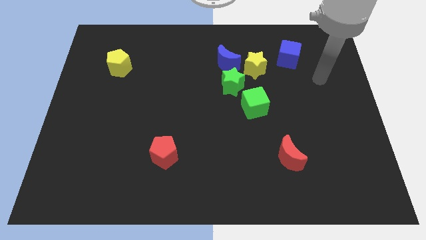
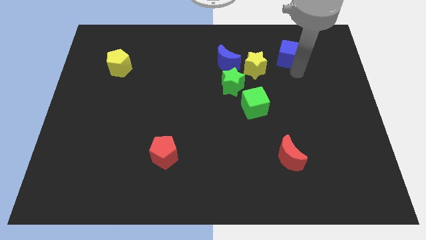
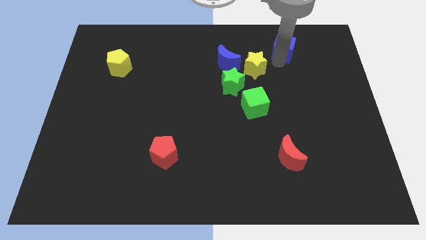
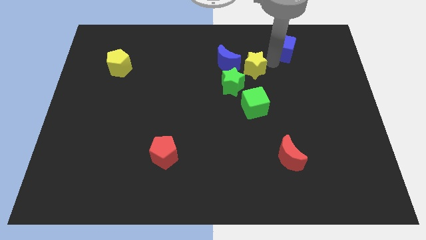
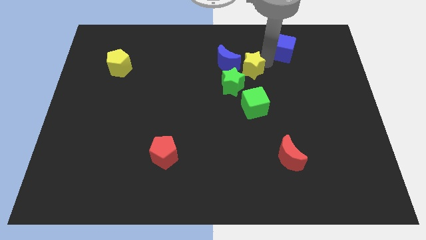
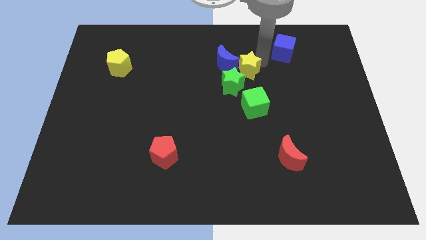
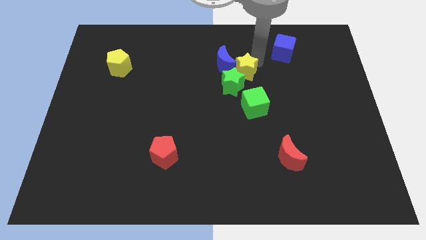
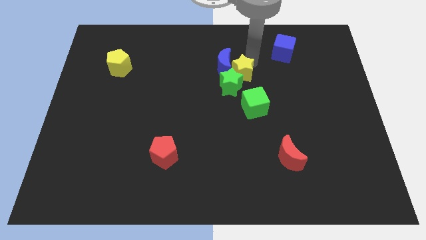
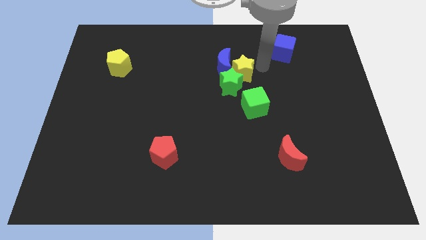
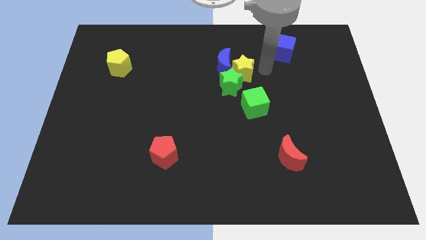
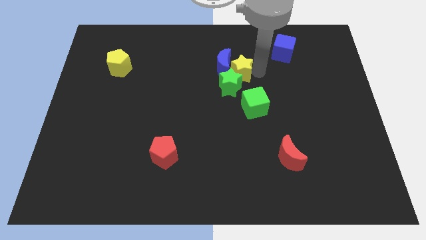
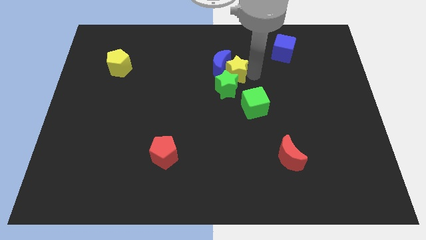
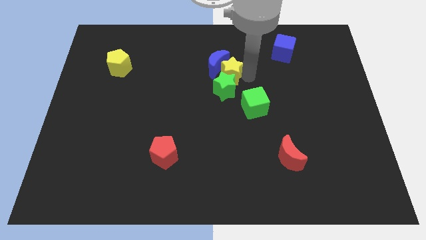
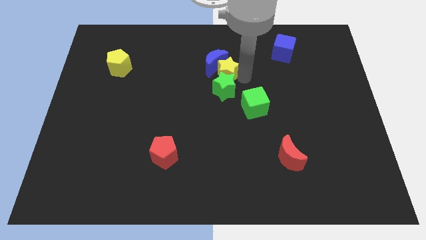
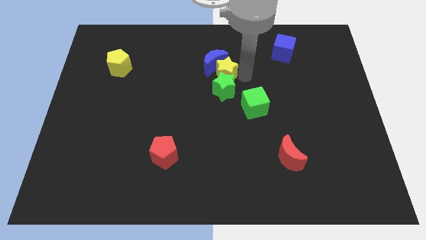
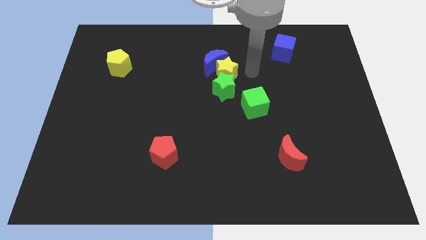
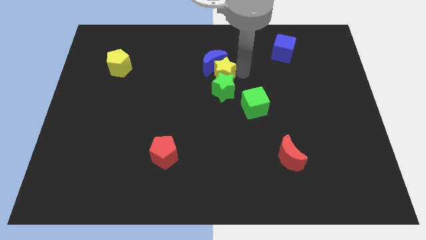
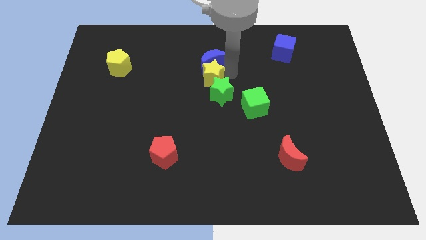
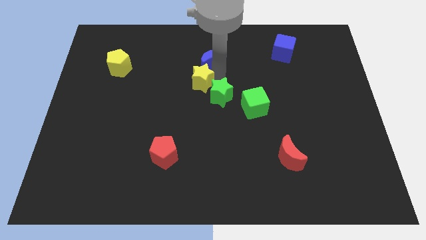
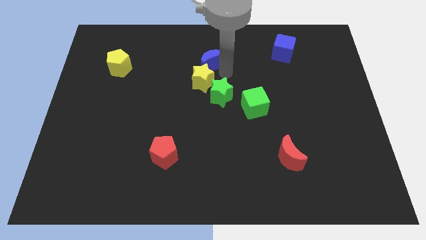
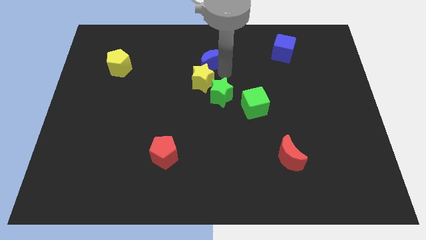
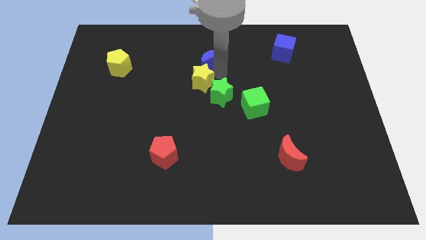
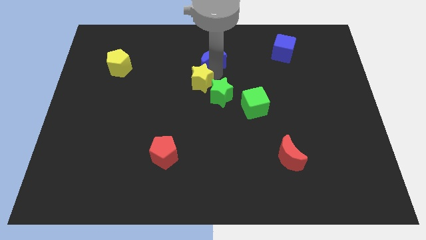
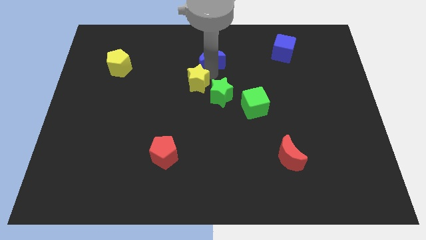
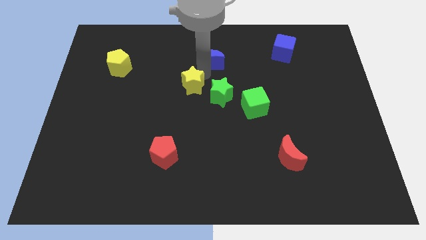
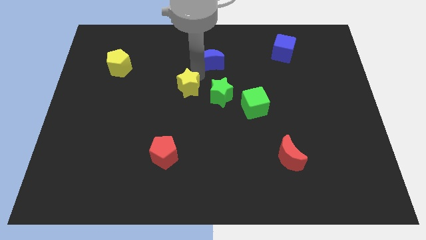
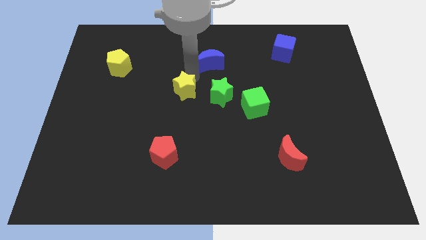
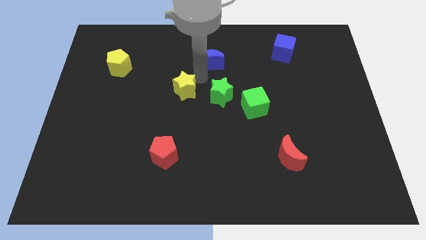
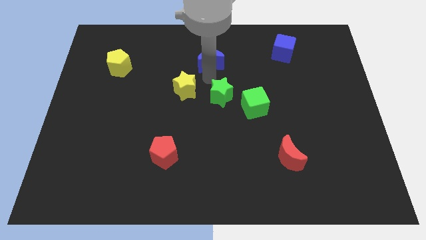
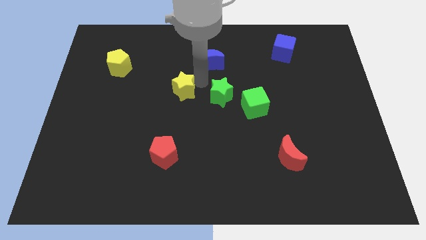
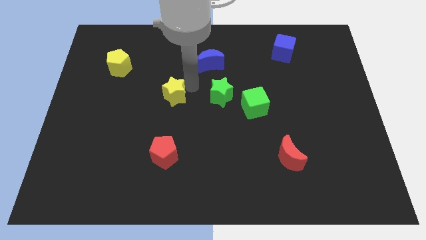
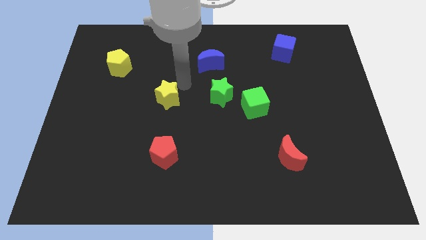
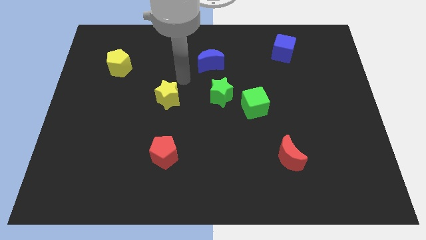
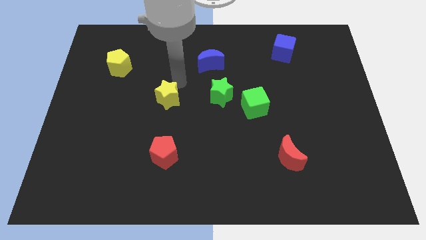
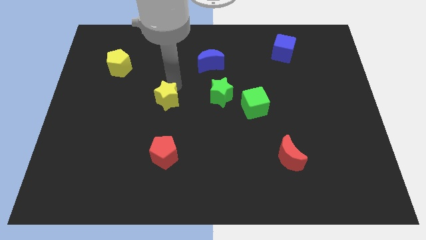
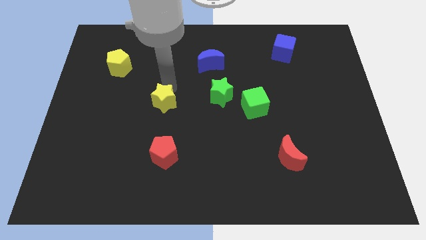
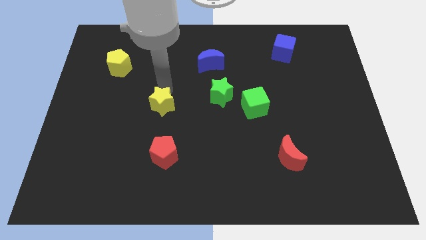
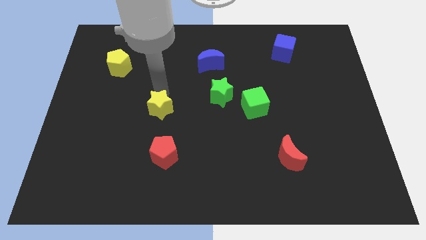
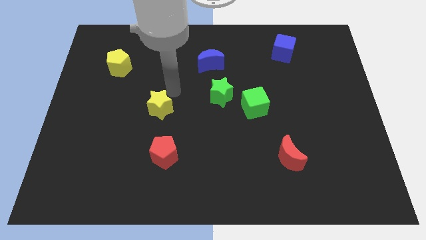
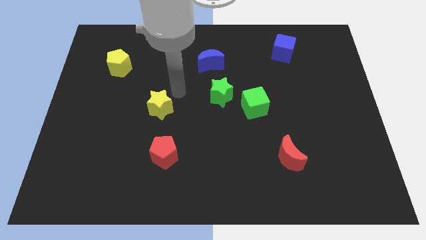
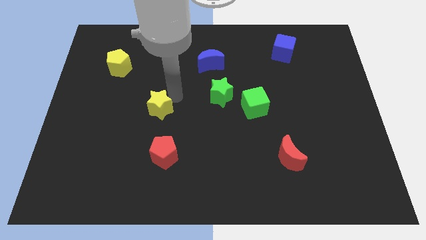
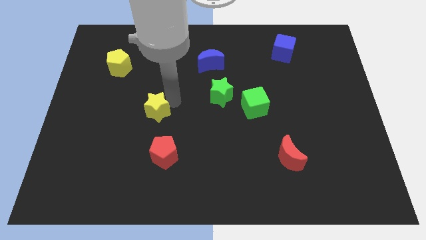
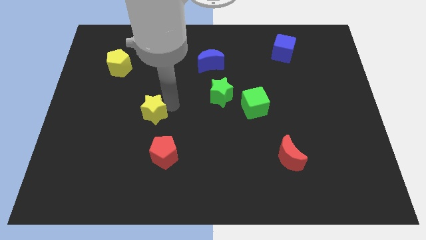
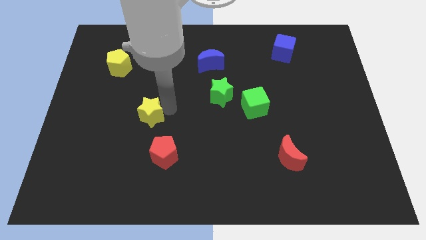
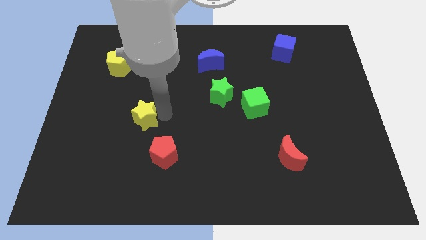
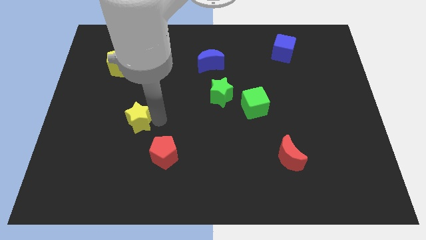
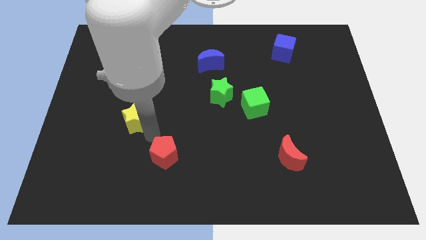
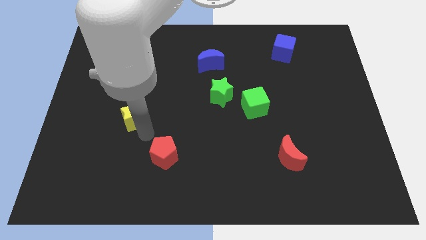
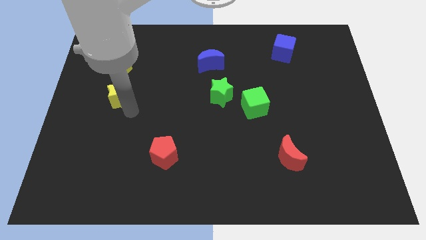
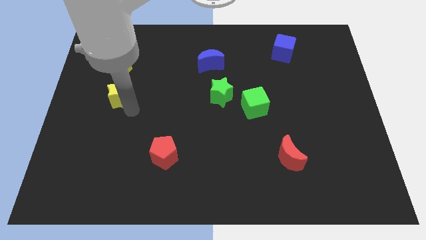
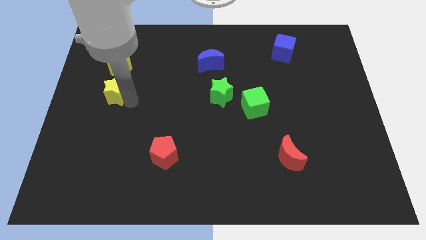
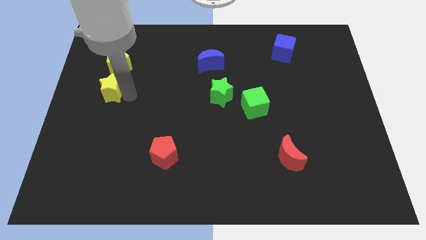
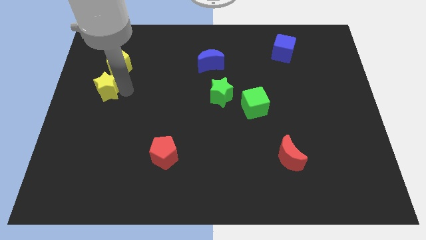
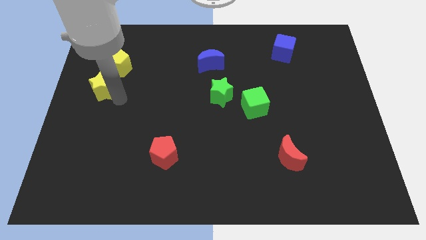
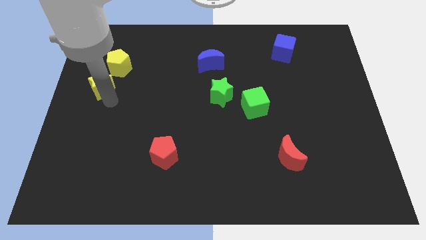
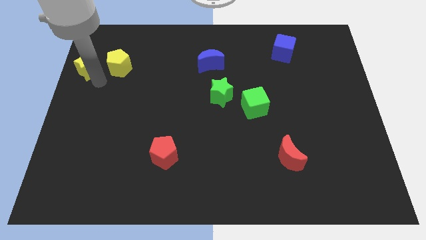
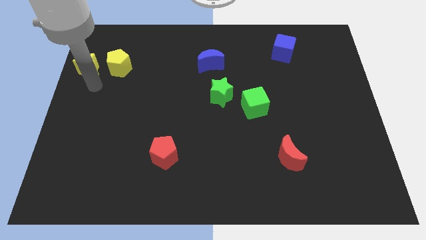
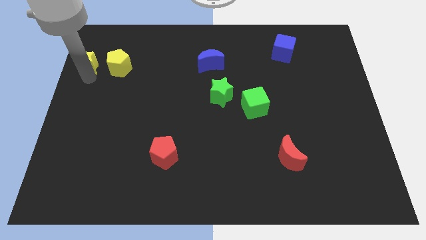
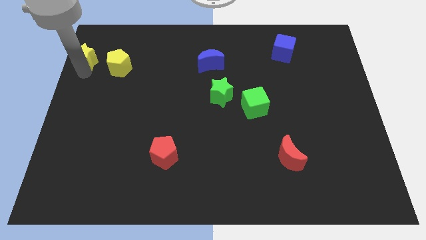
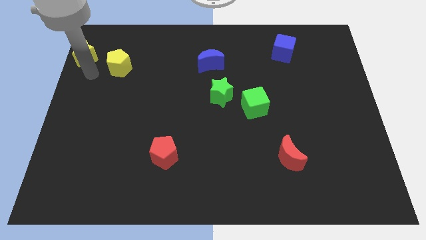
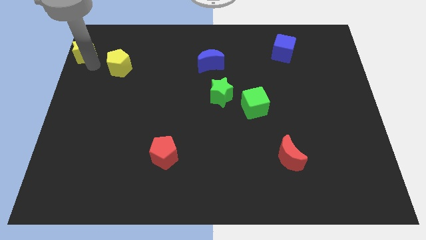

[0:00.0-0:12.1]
put the yellow star to the top left of the board
